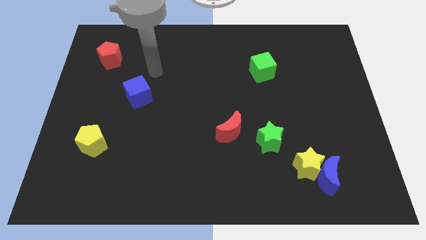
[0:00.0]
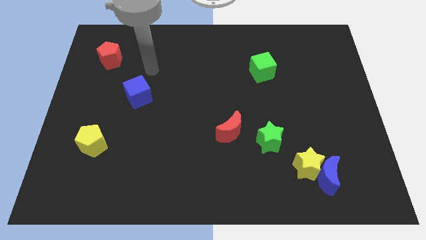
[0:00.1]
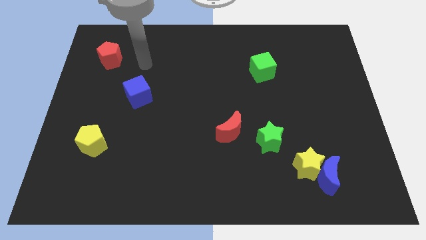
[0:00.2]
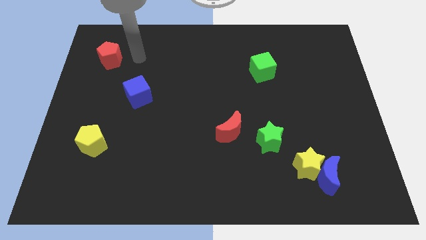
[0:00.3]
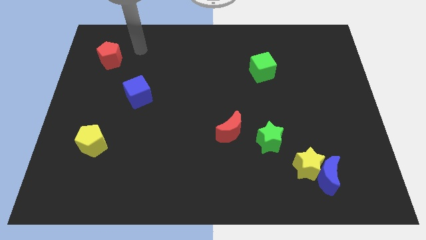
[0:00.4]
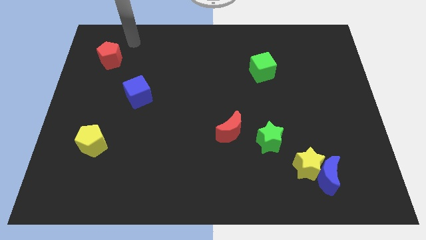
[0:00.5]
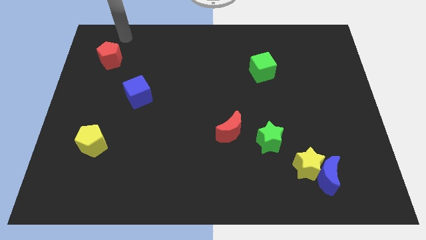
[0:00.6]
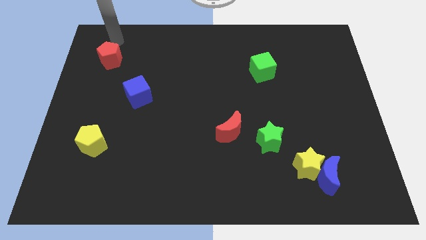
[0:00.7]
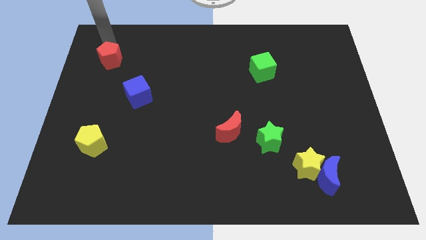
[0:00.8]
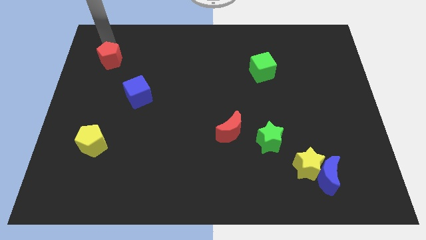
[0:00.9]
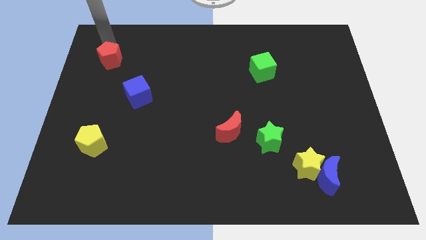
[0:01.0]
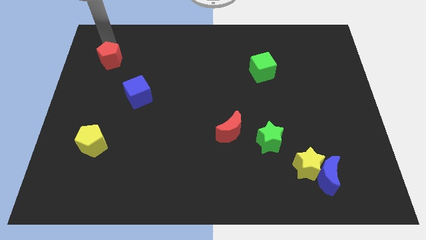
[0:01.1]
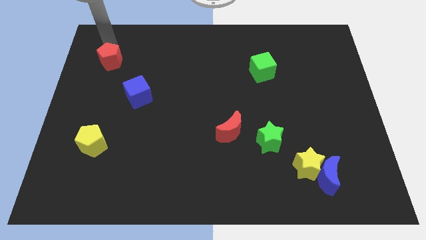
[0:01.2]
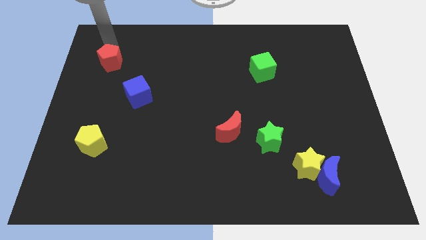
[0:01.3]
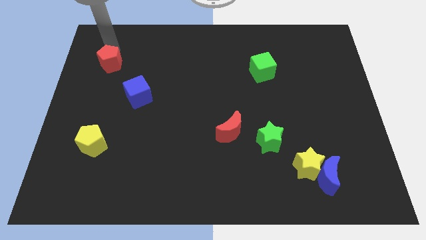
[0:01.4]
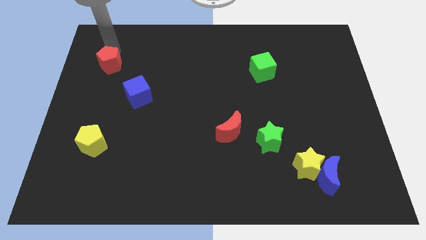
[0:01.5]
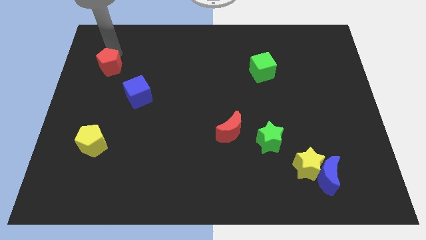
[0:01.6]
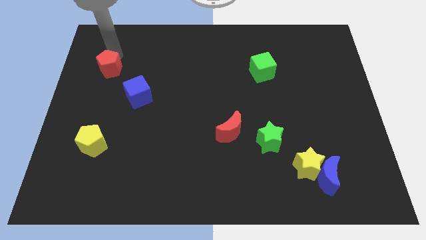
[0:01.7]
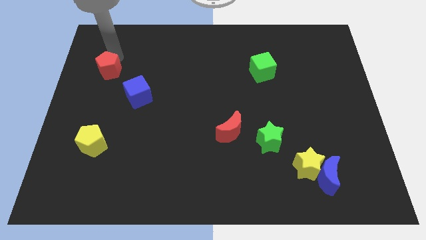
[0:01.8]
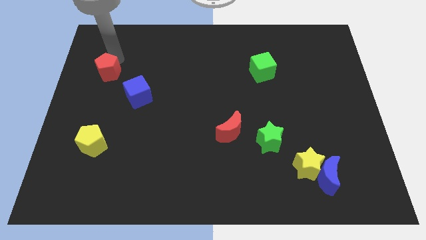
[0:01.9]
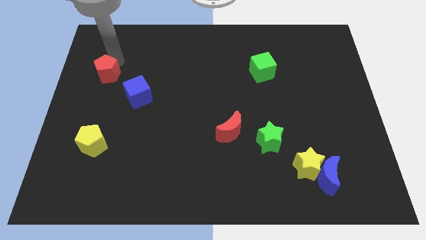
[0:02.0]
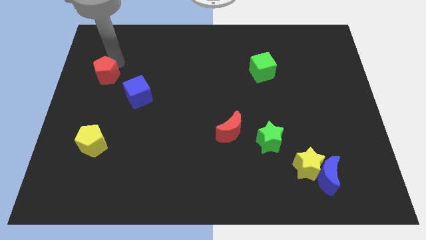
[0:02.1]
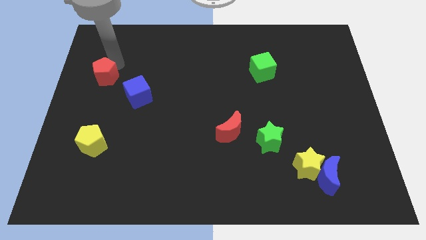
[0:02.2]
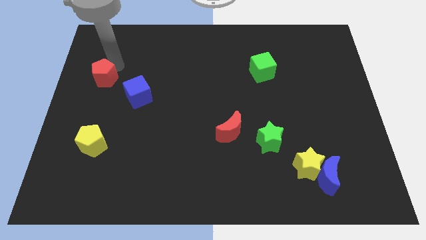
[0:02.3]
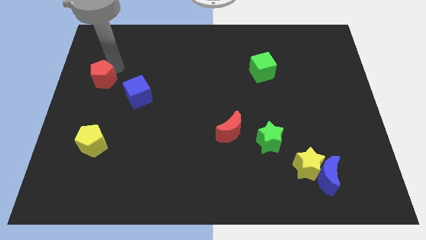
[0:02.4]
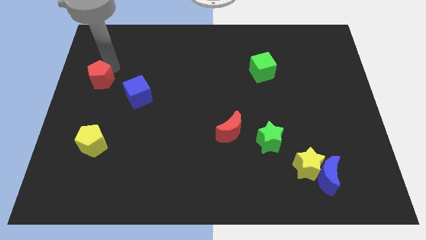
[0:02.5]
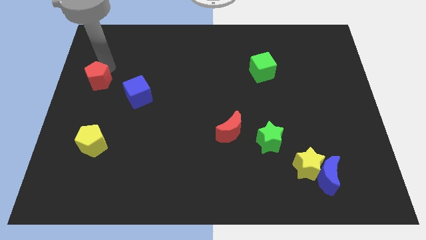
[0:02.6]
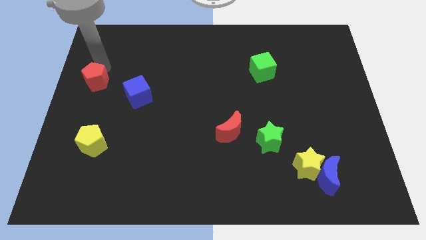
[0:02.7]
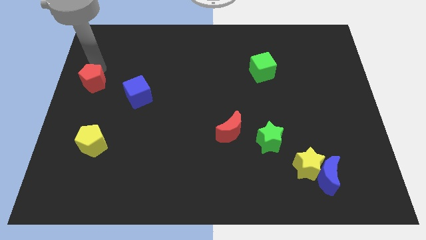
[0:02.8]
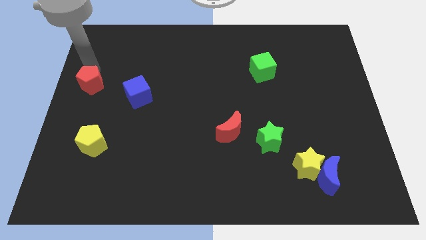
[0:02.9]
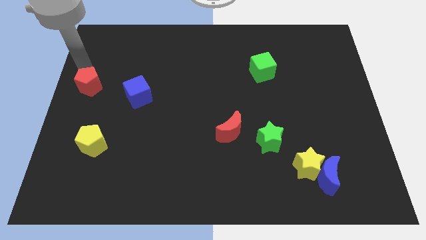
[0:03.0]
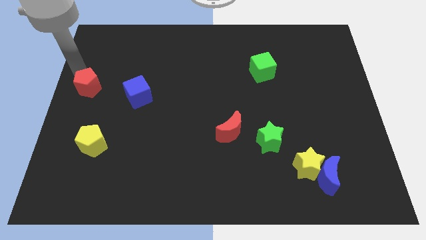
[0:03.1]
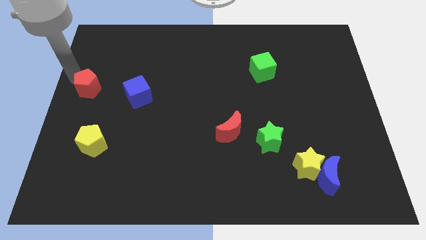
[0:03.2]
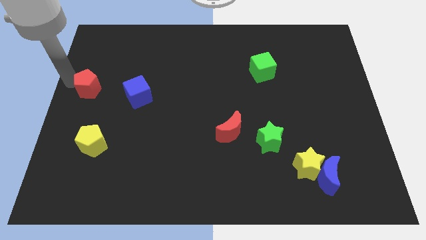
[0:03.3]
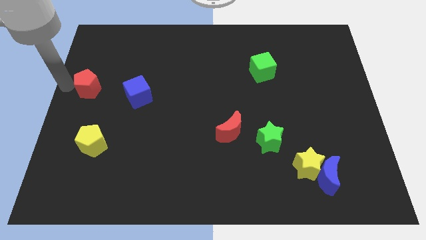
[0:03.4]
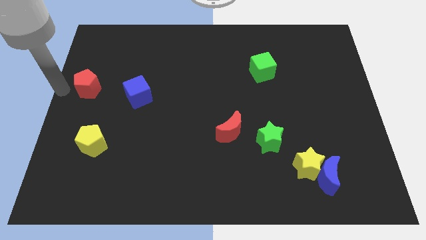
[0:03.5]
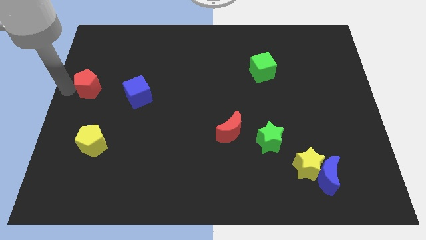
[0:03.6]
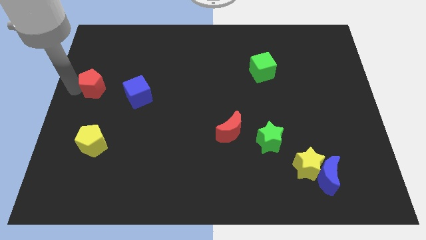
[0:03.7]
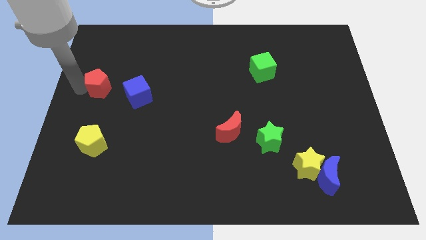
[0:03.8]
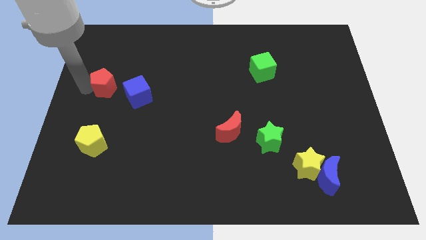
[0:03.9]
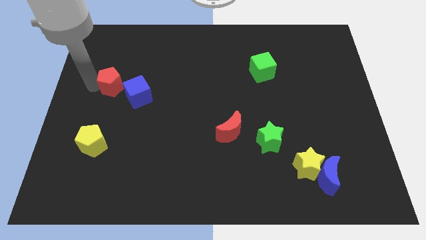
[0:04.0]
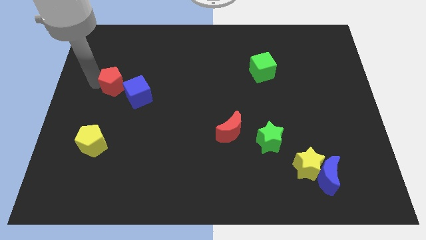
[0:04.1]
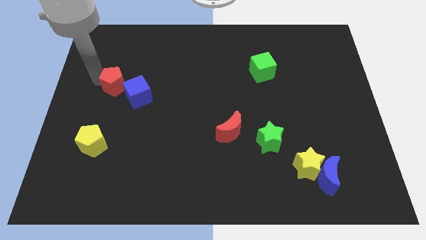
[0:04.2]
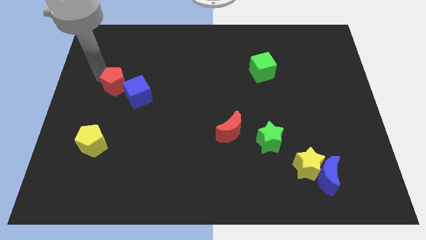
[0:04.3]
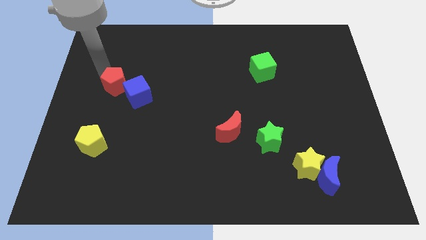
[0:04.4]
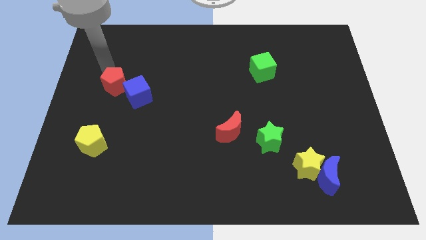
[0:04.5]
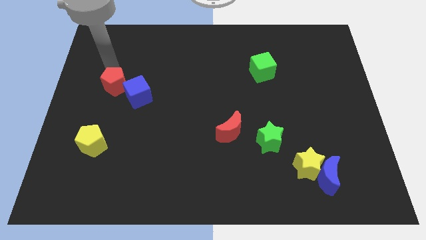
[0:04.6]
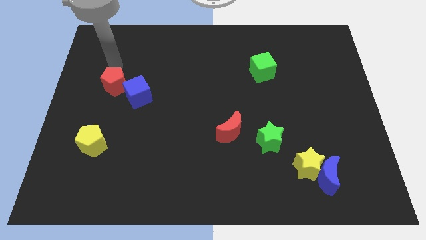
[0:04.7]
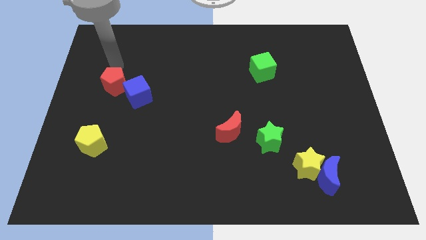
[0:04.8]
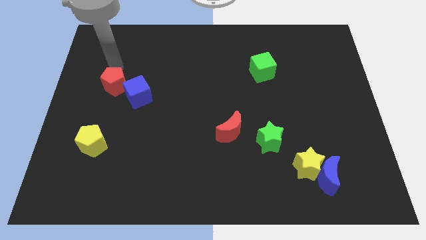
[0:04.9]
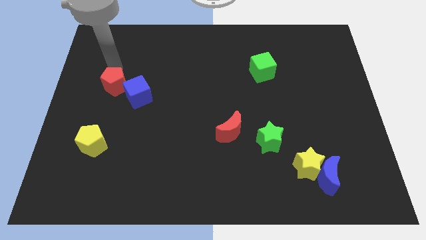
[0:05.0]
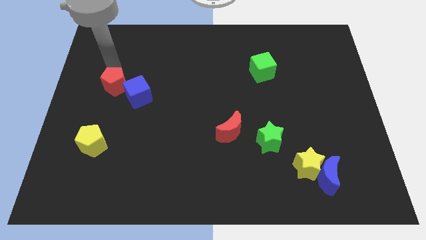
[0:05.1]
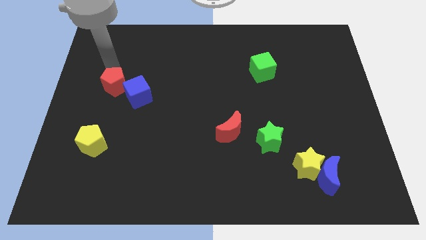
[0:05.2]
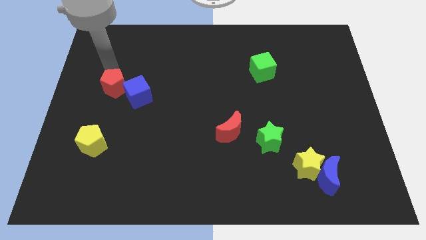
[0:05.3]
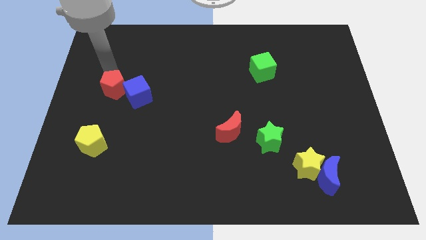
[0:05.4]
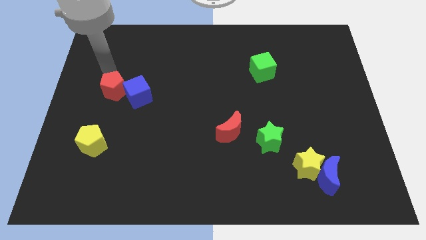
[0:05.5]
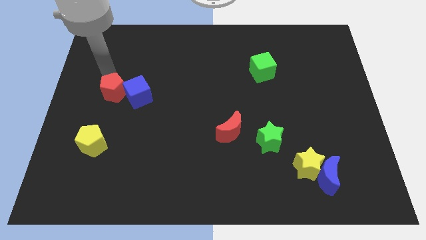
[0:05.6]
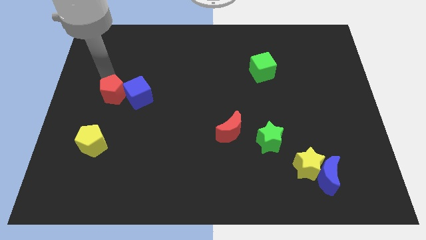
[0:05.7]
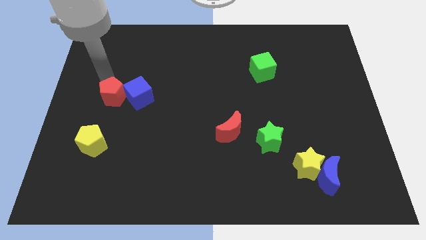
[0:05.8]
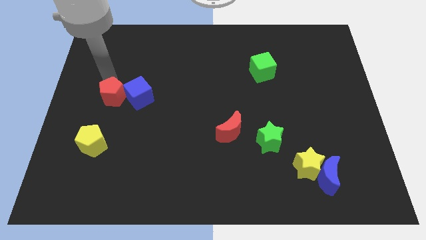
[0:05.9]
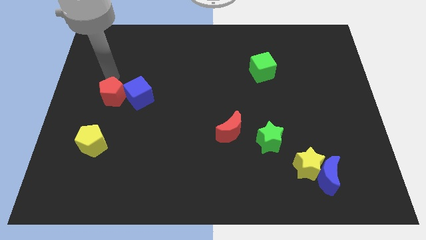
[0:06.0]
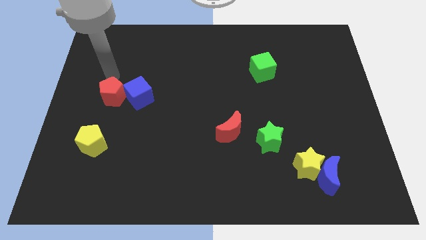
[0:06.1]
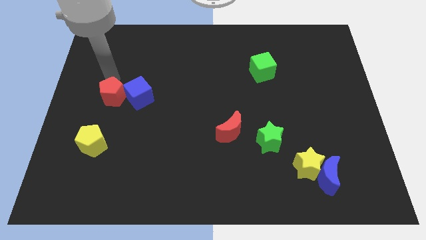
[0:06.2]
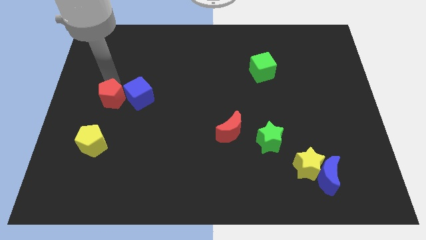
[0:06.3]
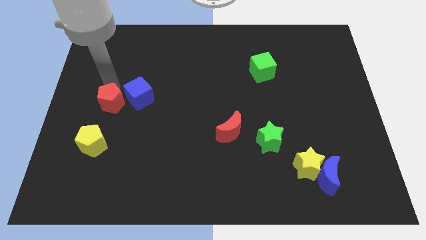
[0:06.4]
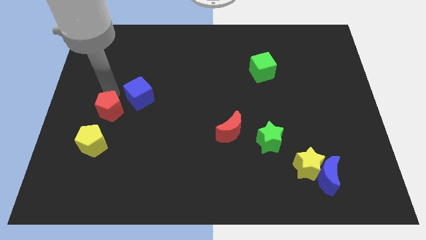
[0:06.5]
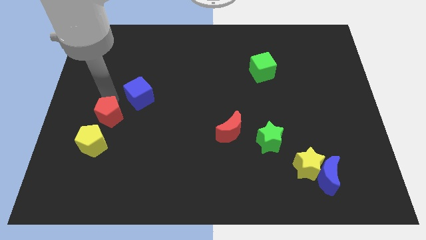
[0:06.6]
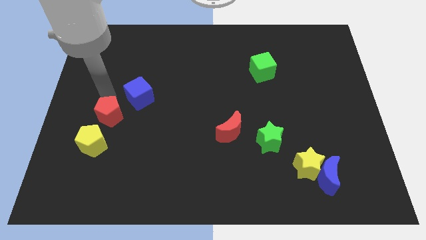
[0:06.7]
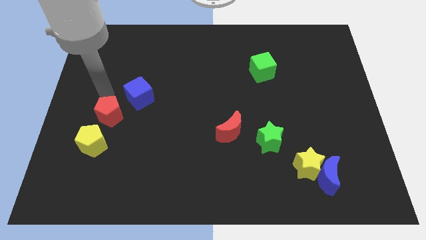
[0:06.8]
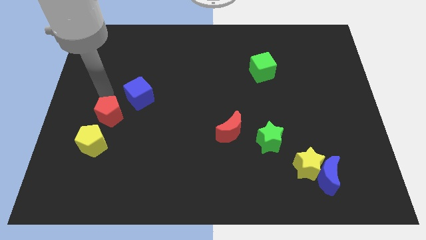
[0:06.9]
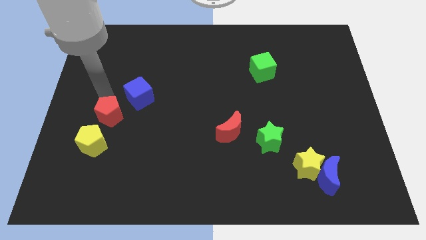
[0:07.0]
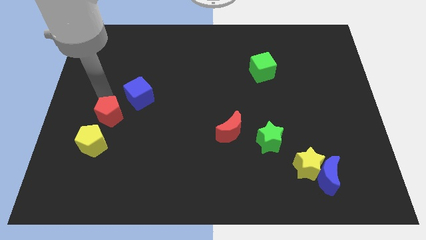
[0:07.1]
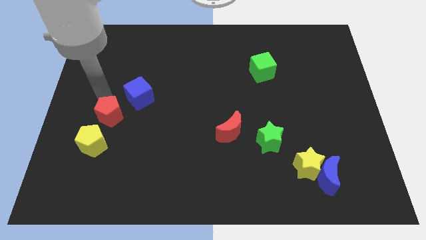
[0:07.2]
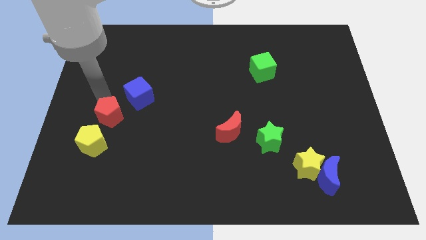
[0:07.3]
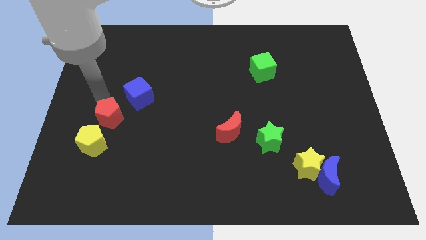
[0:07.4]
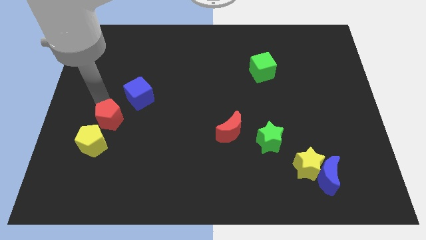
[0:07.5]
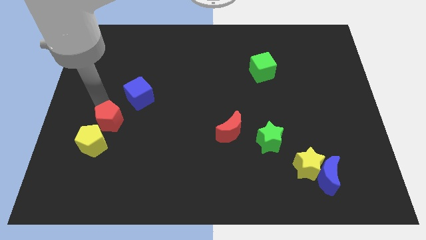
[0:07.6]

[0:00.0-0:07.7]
move the red pentagon downwards

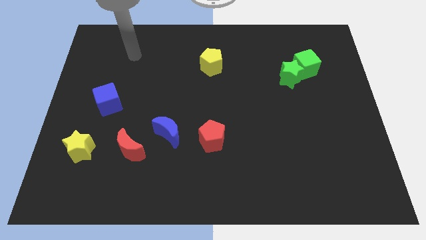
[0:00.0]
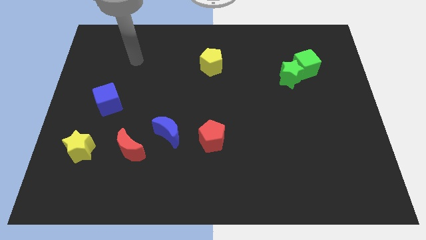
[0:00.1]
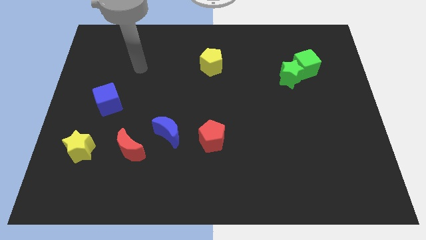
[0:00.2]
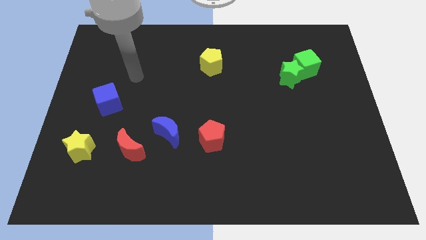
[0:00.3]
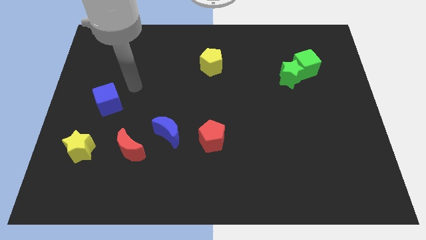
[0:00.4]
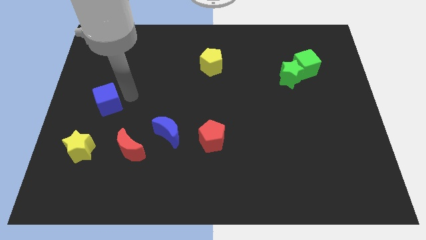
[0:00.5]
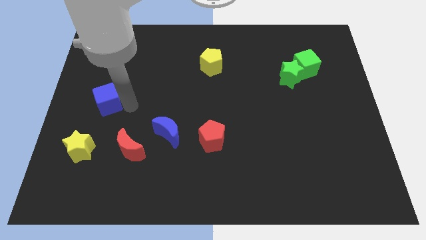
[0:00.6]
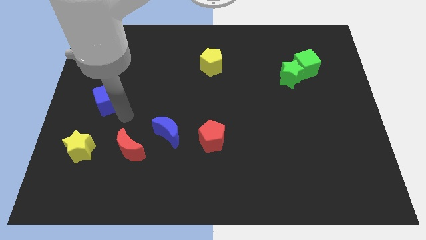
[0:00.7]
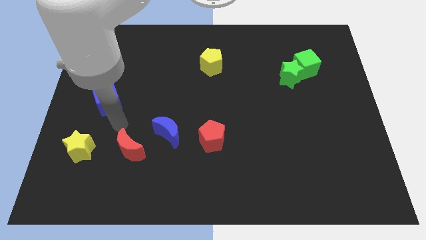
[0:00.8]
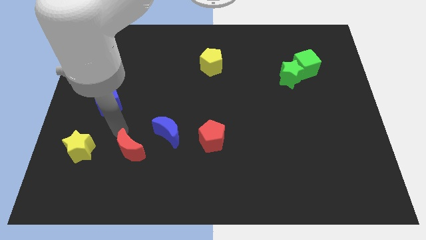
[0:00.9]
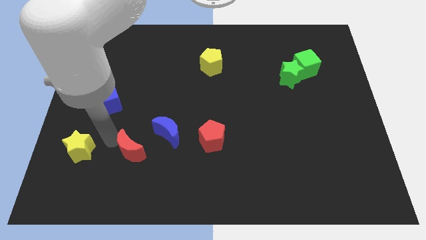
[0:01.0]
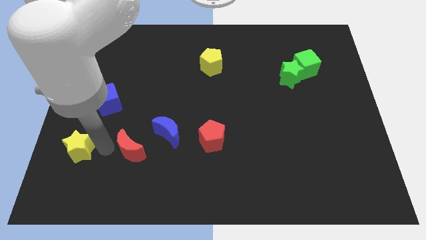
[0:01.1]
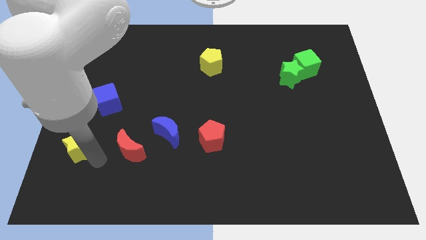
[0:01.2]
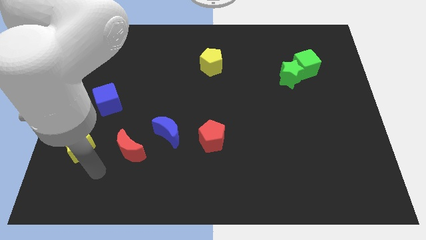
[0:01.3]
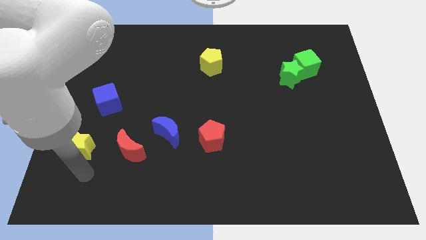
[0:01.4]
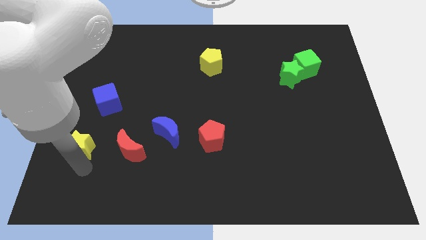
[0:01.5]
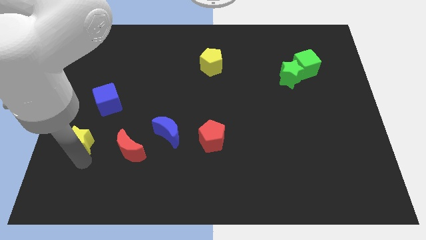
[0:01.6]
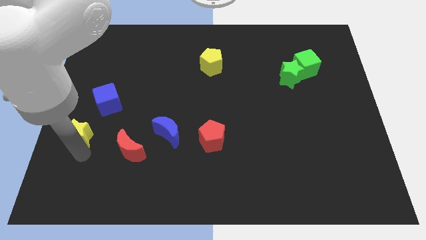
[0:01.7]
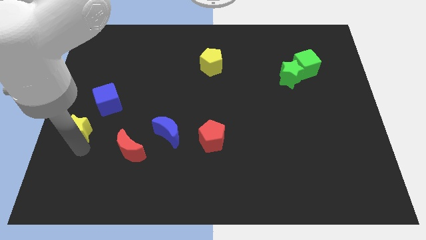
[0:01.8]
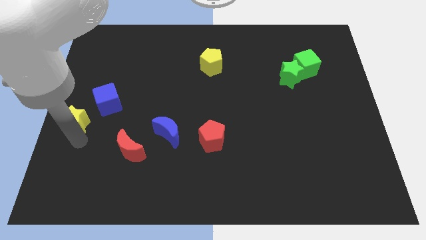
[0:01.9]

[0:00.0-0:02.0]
move the yellow star up a bit
